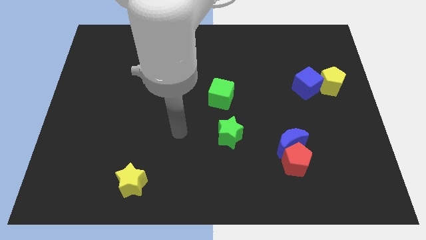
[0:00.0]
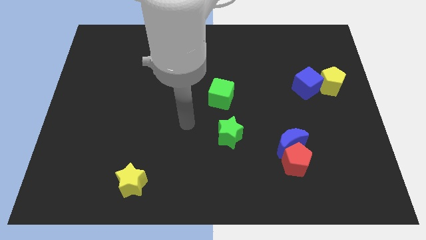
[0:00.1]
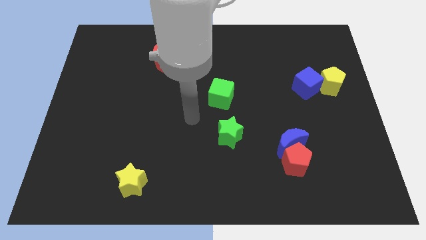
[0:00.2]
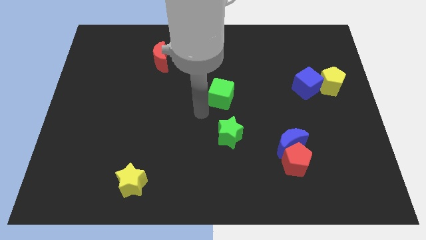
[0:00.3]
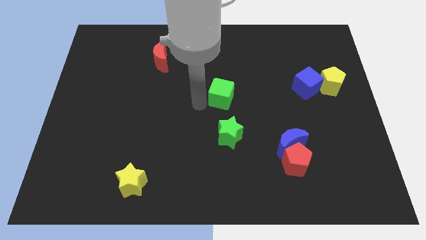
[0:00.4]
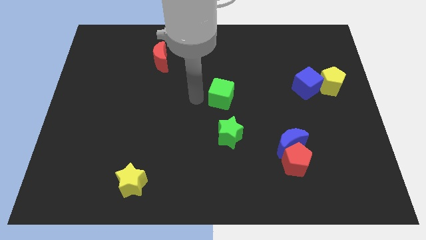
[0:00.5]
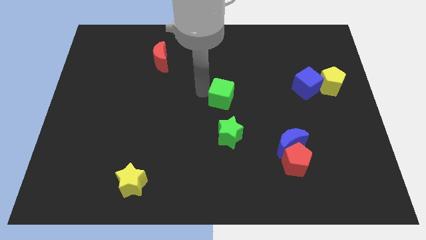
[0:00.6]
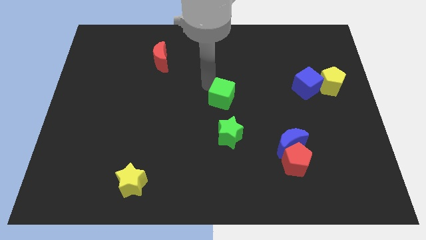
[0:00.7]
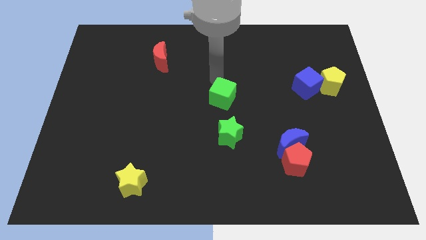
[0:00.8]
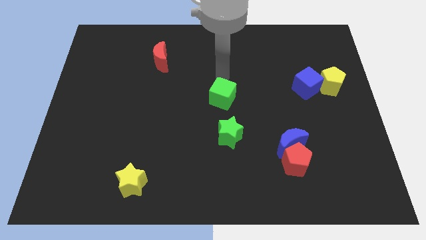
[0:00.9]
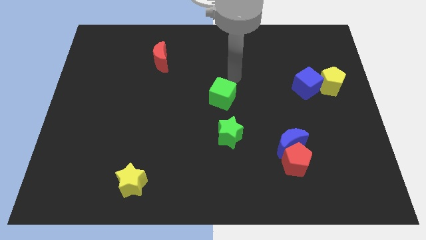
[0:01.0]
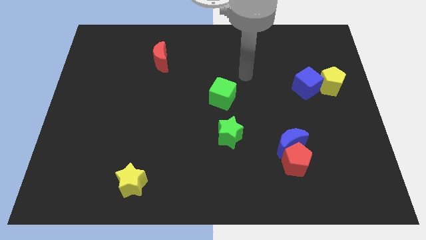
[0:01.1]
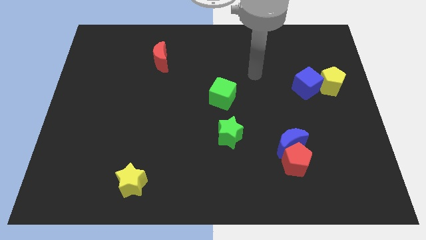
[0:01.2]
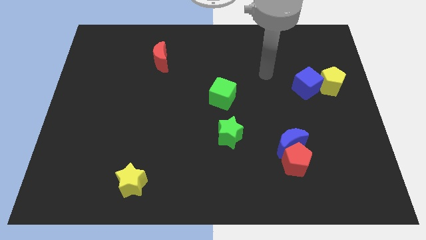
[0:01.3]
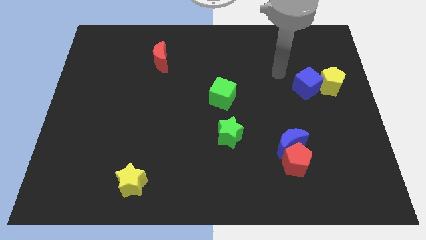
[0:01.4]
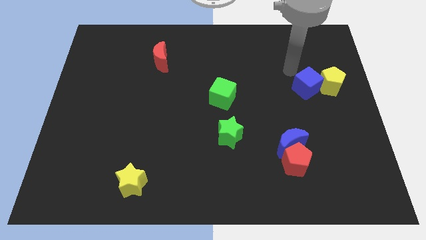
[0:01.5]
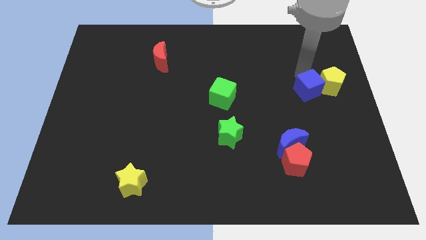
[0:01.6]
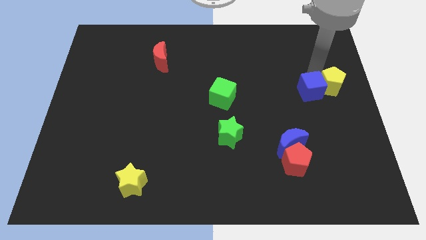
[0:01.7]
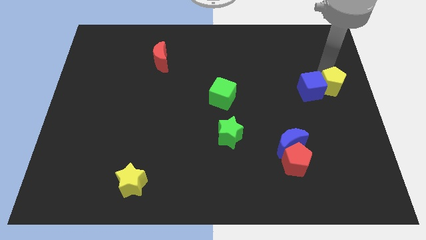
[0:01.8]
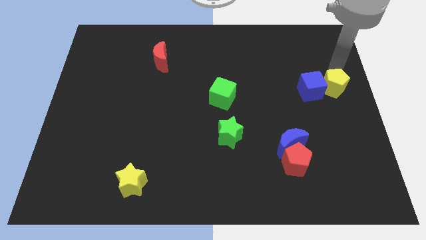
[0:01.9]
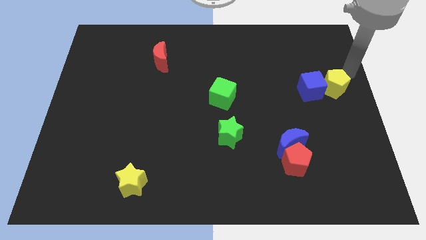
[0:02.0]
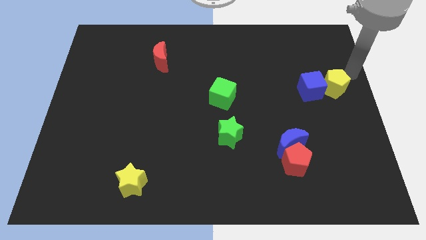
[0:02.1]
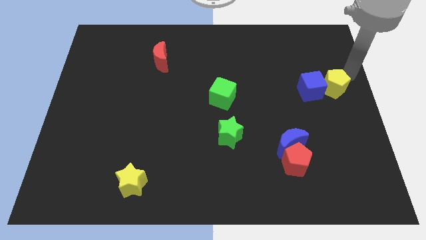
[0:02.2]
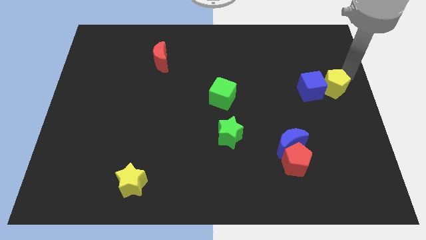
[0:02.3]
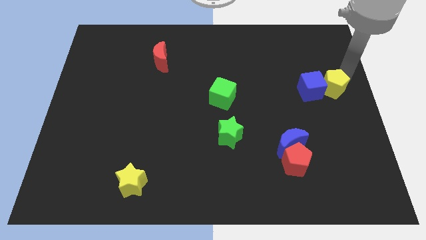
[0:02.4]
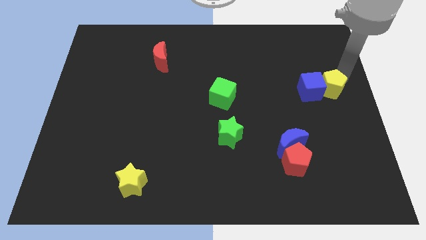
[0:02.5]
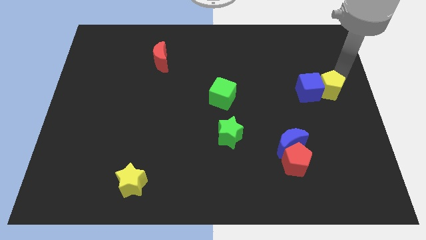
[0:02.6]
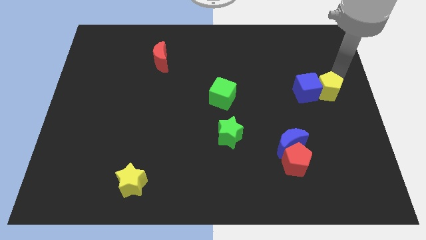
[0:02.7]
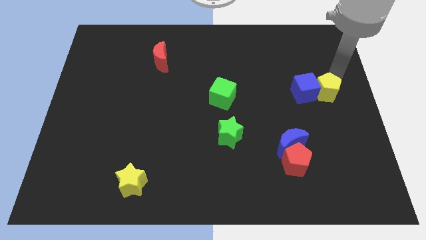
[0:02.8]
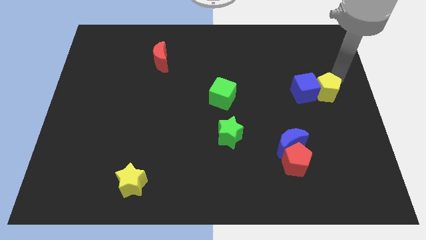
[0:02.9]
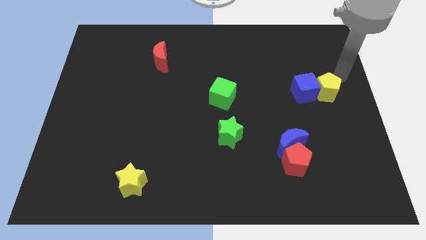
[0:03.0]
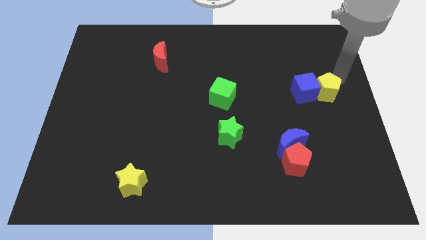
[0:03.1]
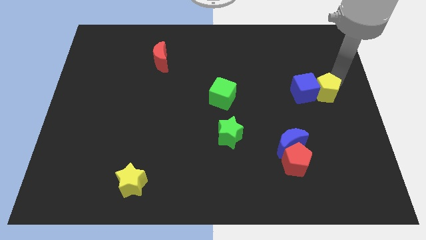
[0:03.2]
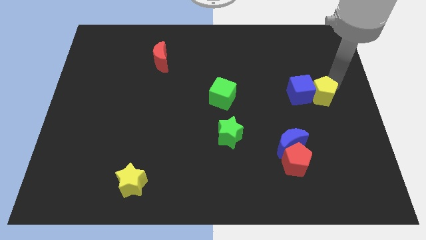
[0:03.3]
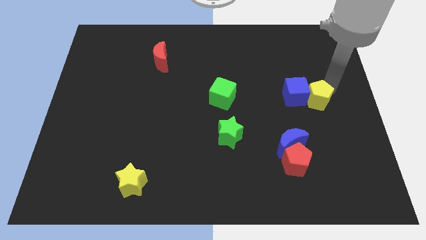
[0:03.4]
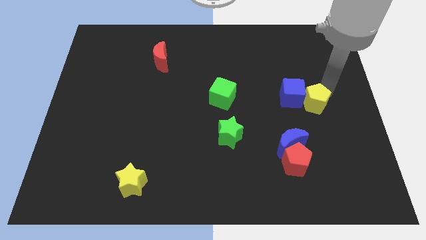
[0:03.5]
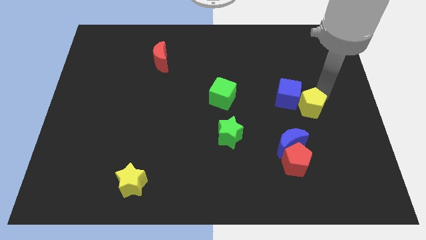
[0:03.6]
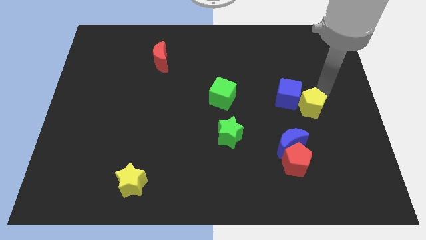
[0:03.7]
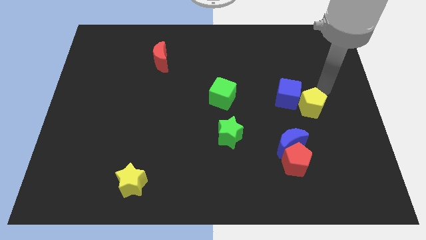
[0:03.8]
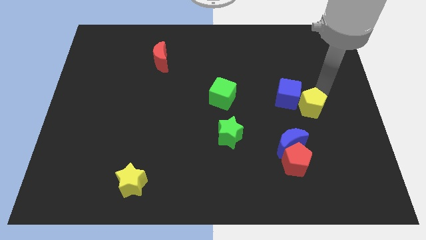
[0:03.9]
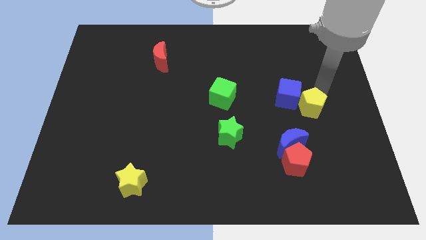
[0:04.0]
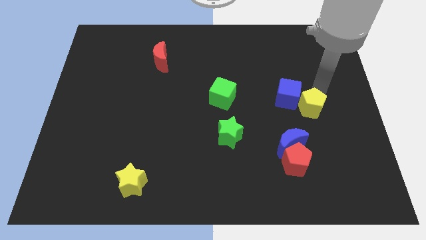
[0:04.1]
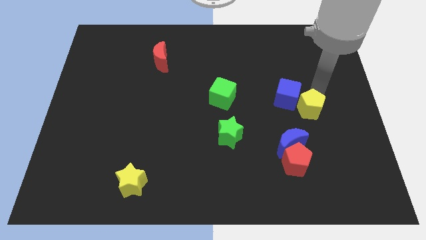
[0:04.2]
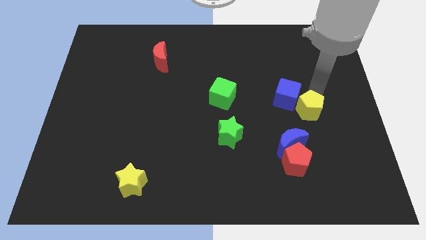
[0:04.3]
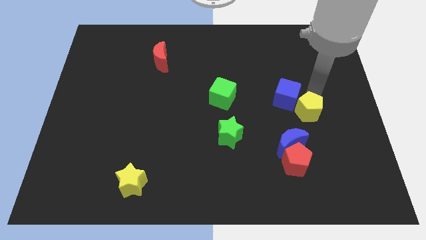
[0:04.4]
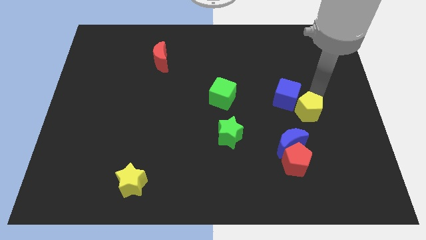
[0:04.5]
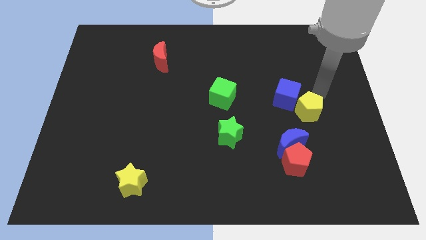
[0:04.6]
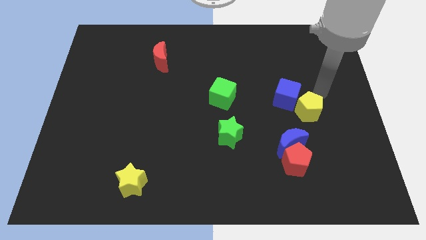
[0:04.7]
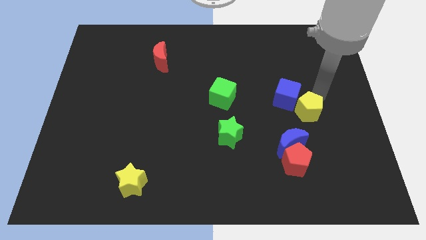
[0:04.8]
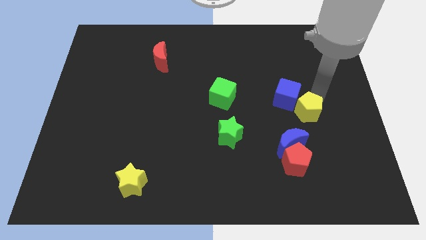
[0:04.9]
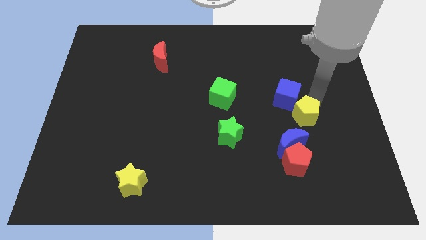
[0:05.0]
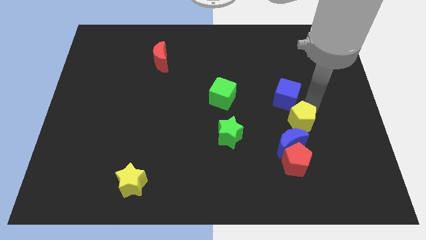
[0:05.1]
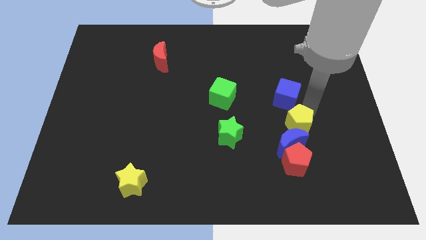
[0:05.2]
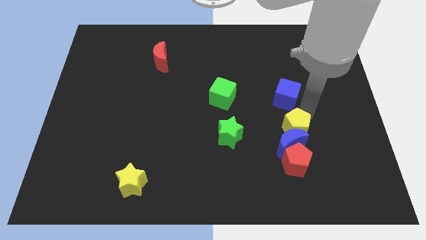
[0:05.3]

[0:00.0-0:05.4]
push the yellow pentagon towards the blue moon

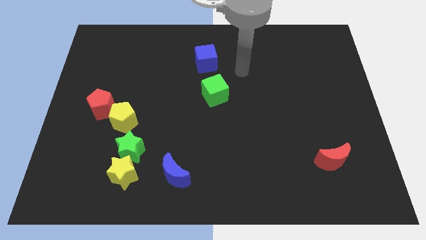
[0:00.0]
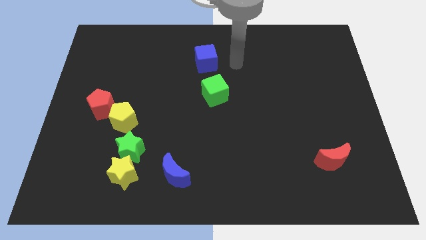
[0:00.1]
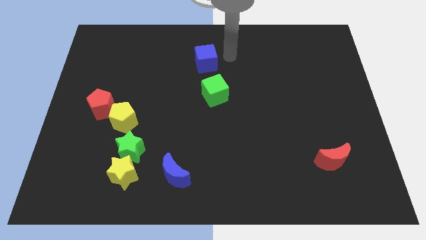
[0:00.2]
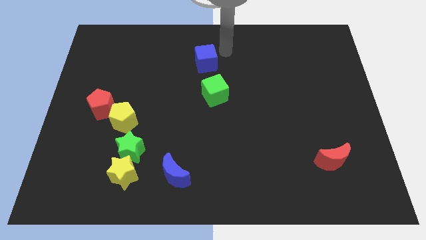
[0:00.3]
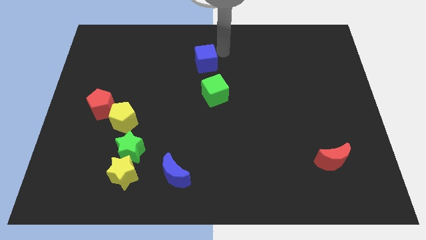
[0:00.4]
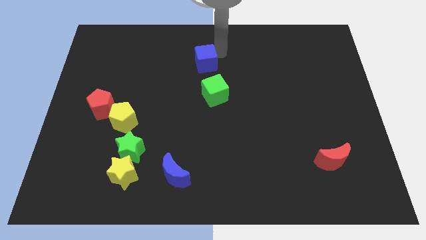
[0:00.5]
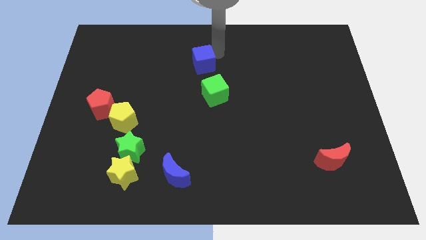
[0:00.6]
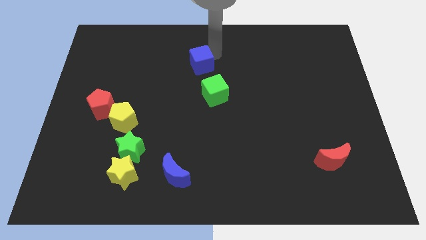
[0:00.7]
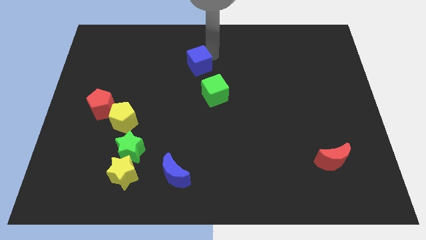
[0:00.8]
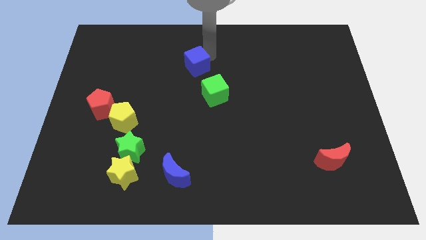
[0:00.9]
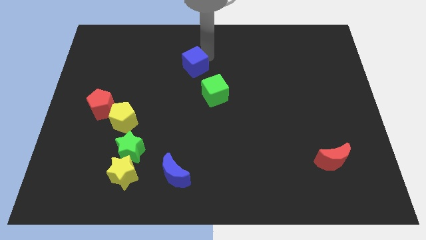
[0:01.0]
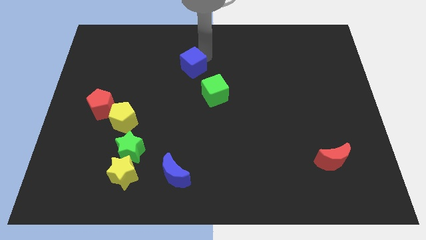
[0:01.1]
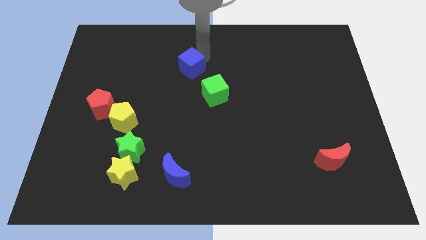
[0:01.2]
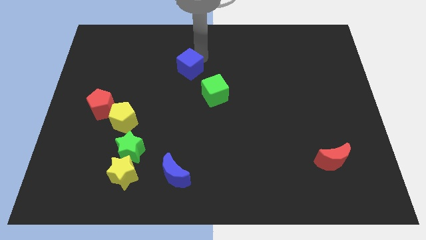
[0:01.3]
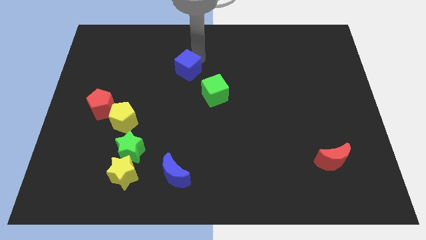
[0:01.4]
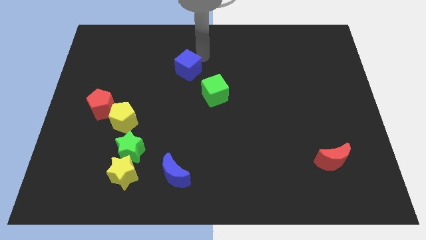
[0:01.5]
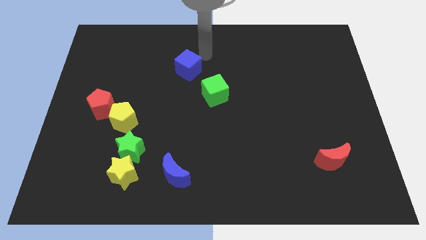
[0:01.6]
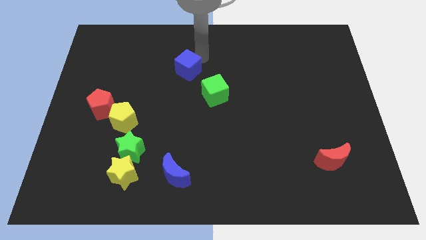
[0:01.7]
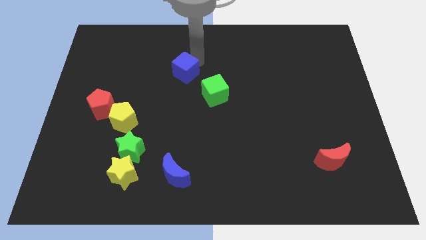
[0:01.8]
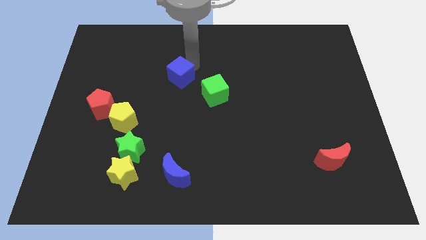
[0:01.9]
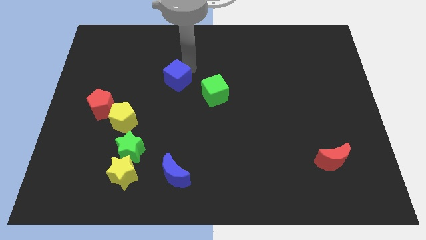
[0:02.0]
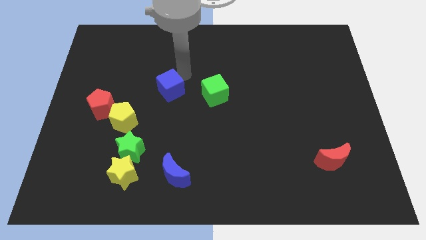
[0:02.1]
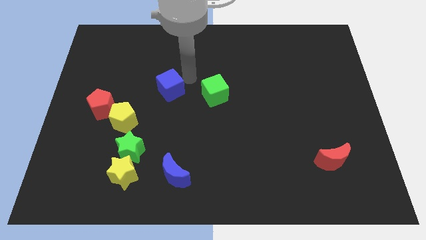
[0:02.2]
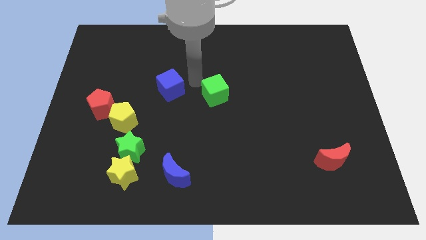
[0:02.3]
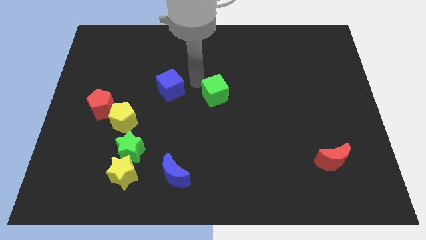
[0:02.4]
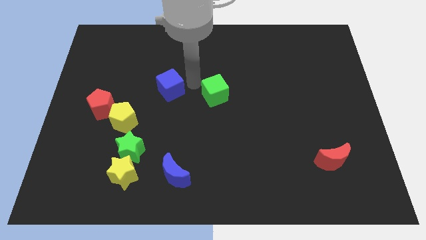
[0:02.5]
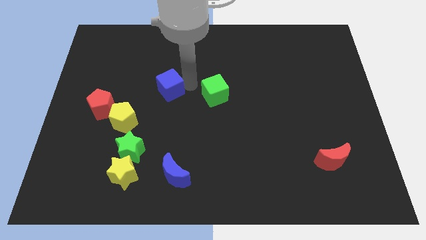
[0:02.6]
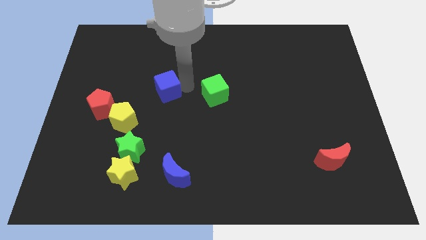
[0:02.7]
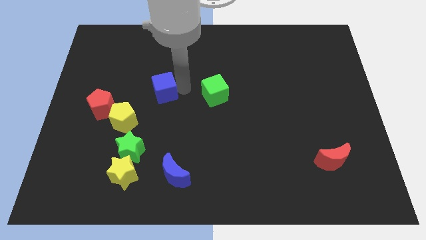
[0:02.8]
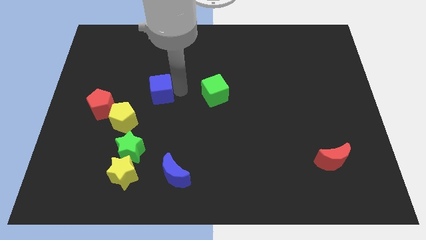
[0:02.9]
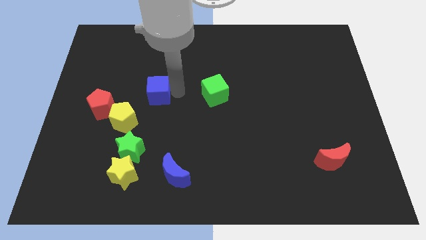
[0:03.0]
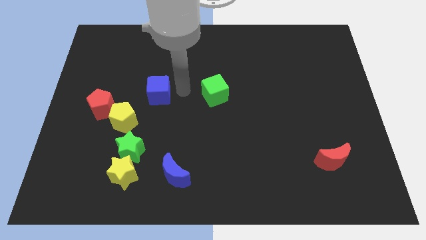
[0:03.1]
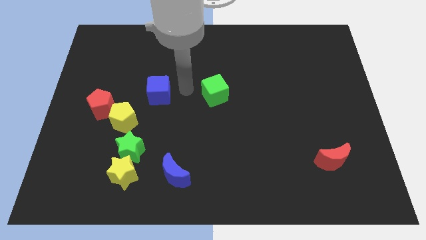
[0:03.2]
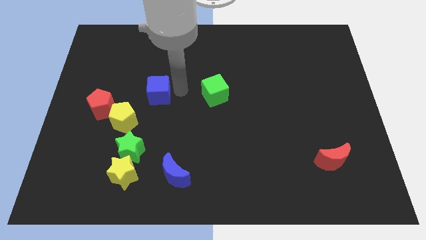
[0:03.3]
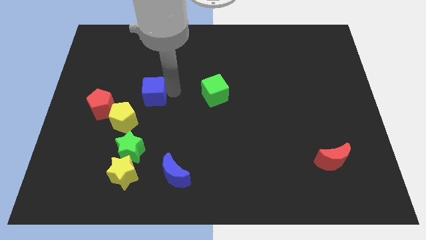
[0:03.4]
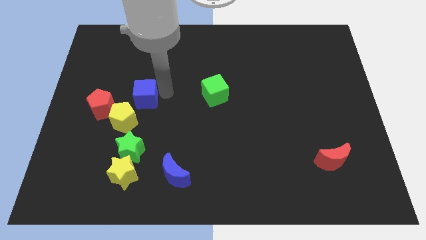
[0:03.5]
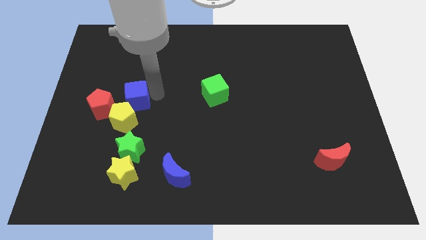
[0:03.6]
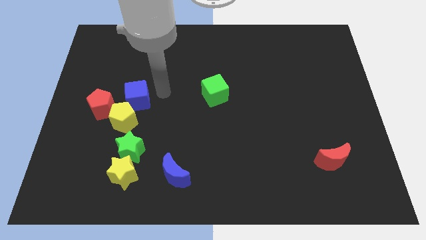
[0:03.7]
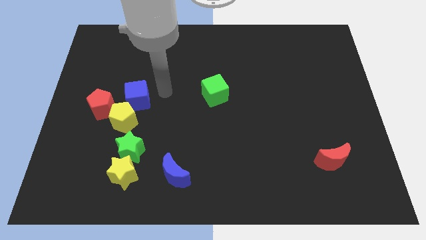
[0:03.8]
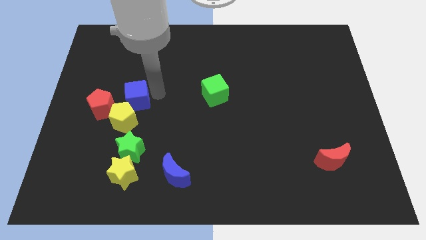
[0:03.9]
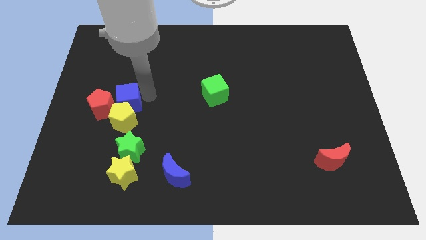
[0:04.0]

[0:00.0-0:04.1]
slide the blue cube towards the red pentagon
